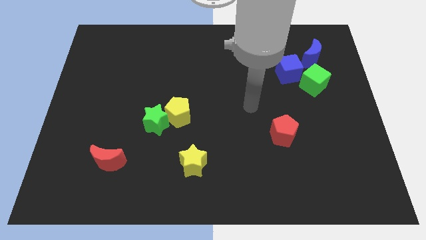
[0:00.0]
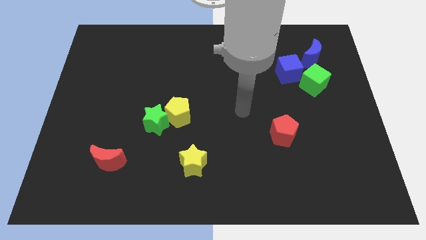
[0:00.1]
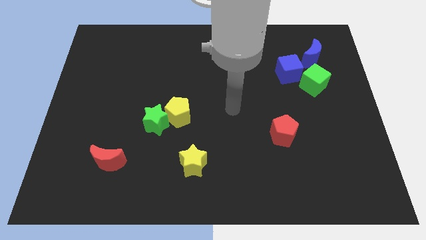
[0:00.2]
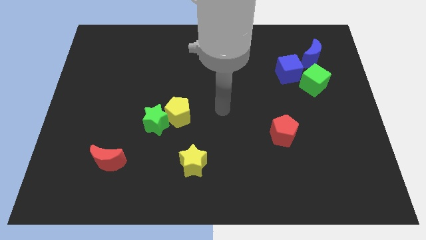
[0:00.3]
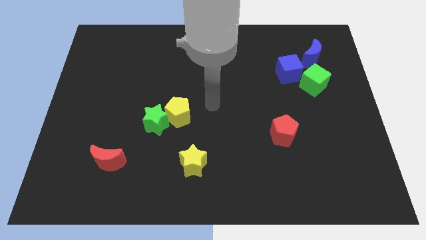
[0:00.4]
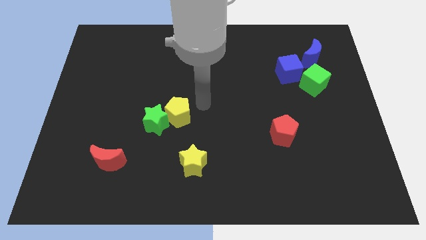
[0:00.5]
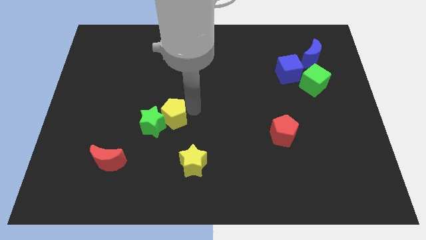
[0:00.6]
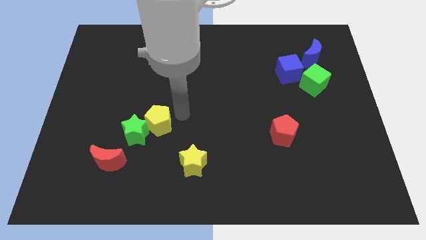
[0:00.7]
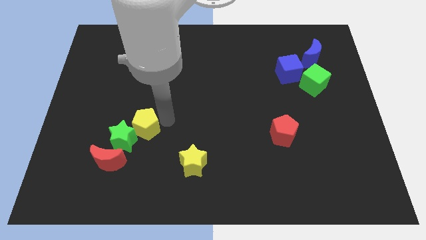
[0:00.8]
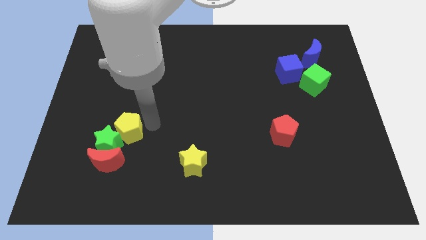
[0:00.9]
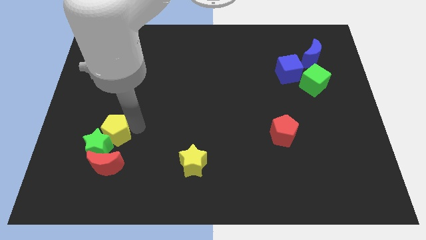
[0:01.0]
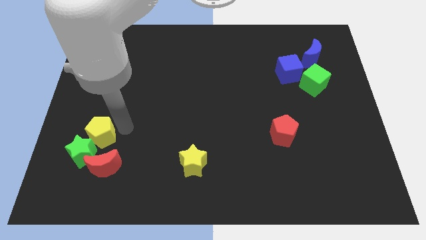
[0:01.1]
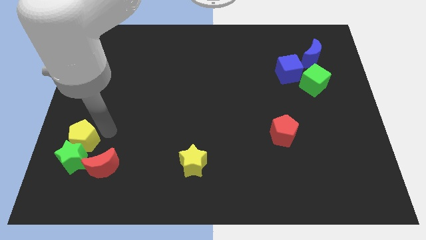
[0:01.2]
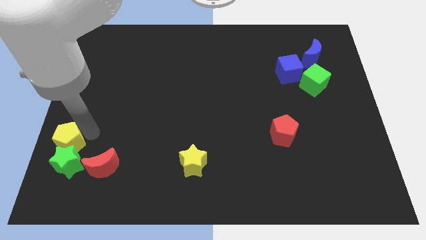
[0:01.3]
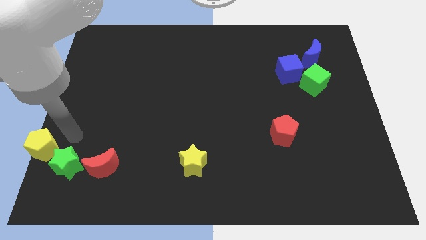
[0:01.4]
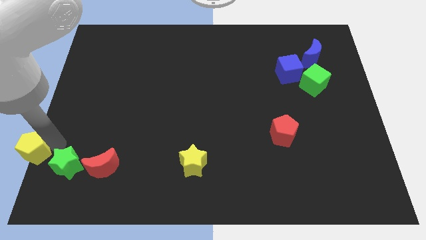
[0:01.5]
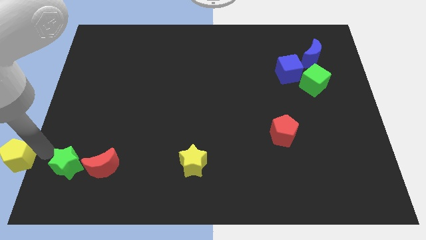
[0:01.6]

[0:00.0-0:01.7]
move the green star away from the yellow pentagon

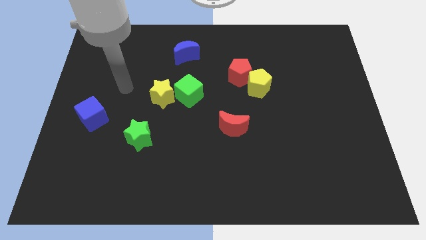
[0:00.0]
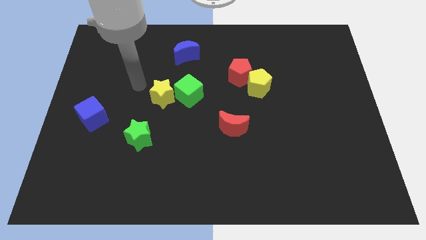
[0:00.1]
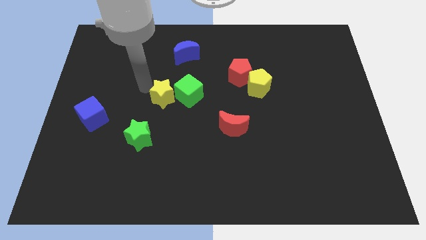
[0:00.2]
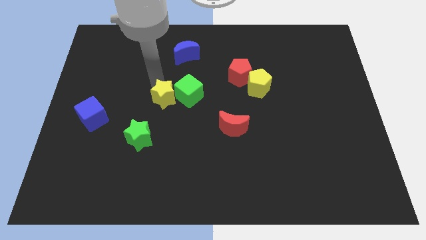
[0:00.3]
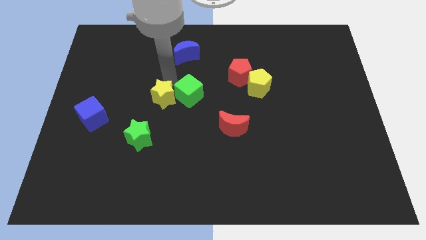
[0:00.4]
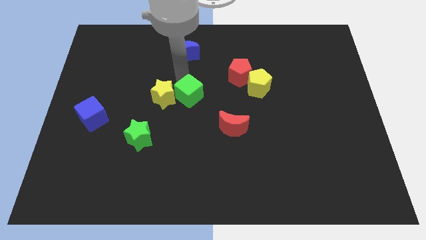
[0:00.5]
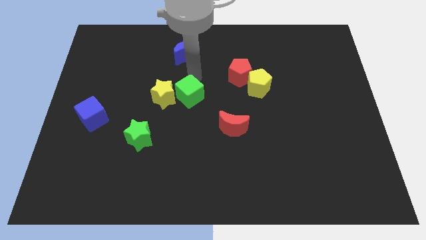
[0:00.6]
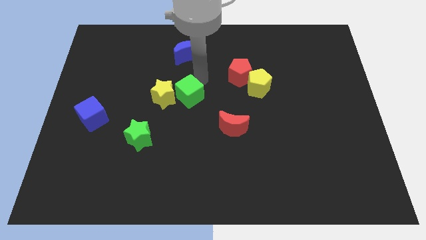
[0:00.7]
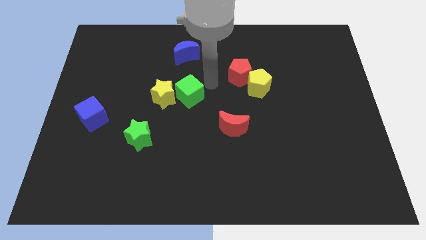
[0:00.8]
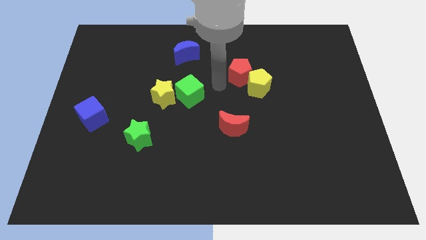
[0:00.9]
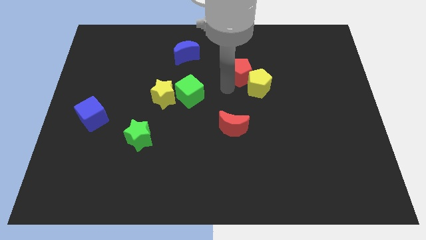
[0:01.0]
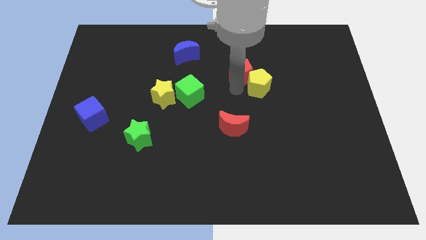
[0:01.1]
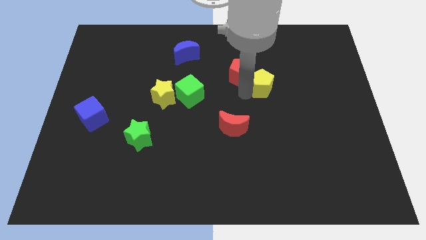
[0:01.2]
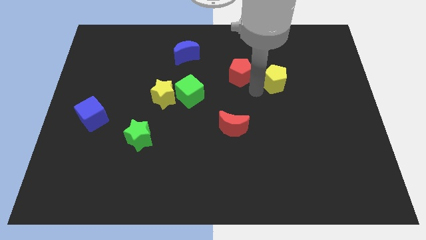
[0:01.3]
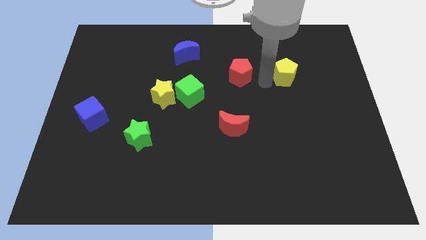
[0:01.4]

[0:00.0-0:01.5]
pull the red pentagon apart from the yellow pentagon

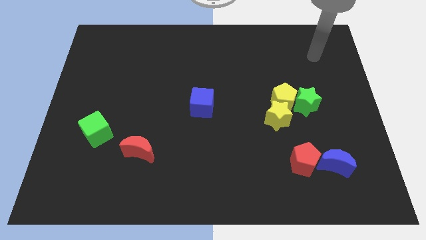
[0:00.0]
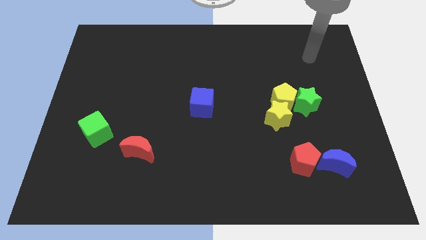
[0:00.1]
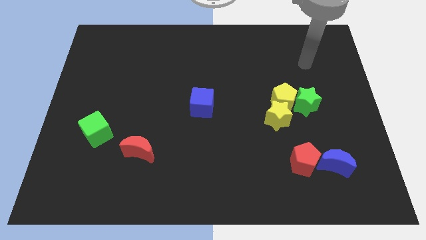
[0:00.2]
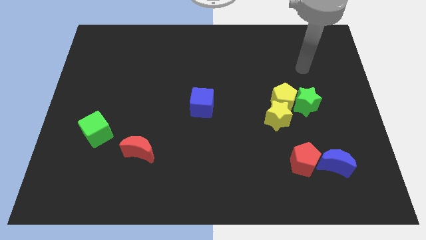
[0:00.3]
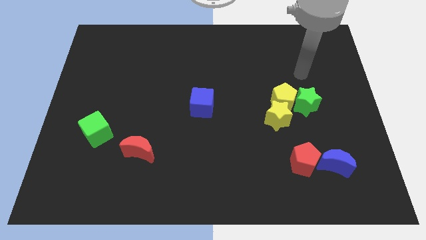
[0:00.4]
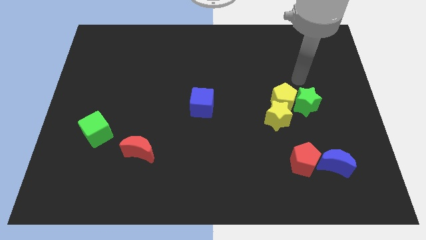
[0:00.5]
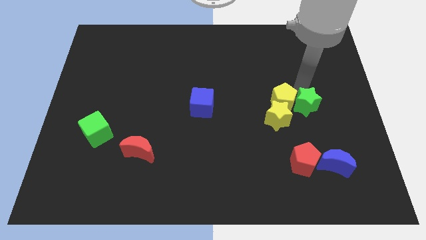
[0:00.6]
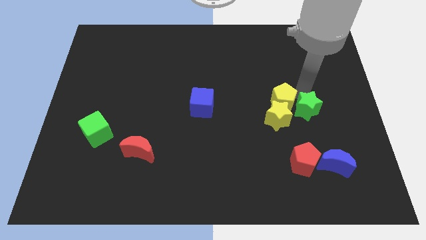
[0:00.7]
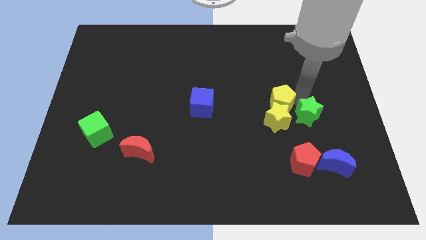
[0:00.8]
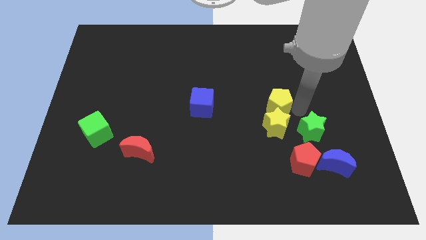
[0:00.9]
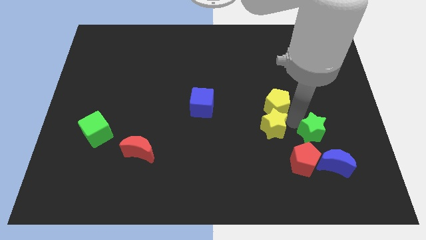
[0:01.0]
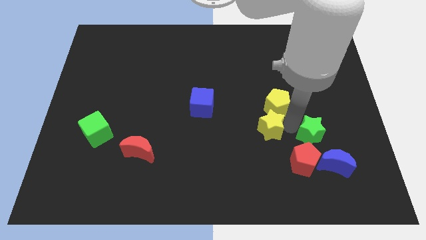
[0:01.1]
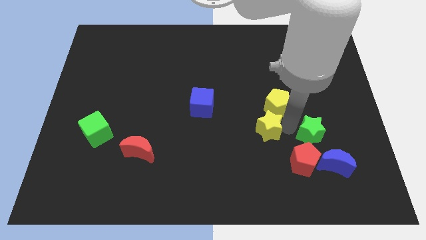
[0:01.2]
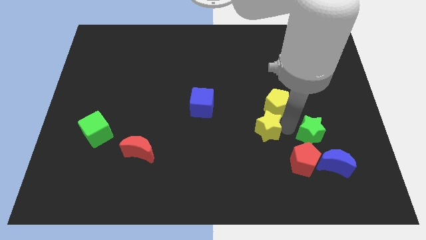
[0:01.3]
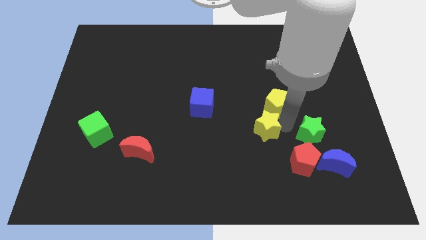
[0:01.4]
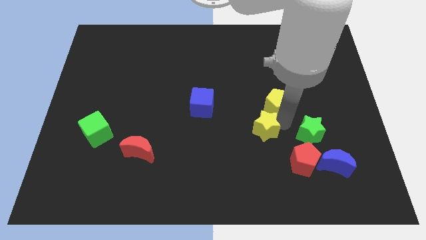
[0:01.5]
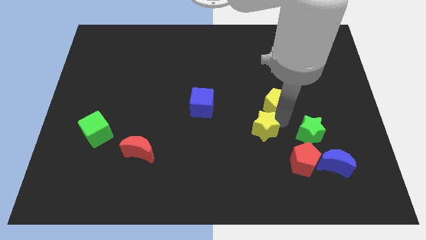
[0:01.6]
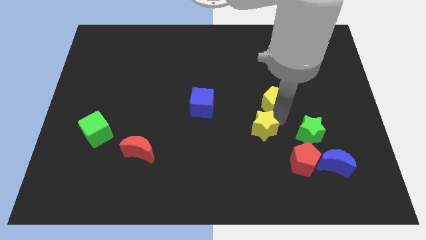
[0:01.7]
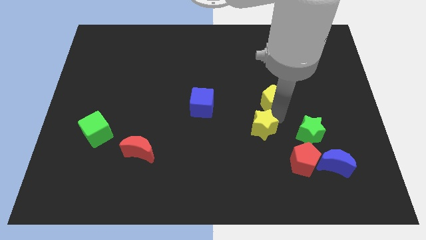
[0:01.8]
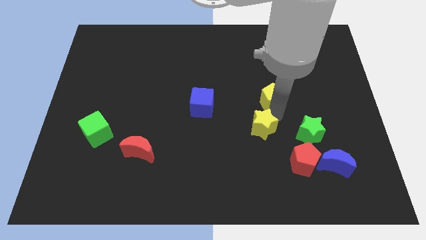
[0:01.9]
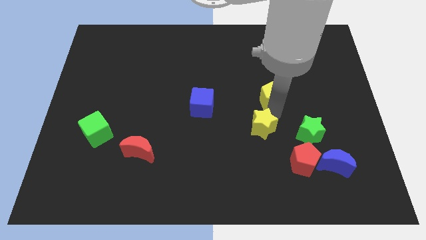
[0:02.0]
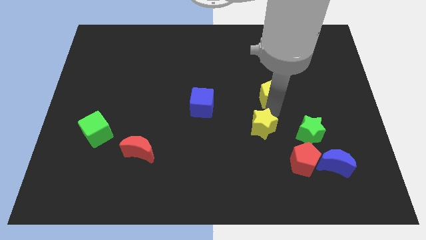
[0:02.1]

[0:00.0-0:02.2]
pull the yellow pentagon apart from the yellow star and green star

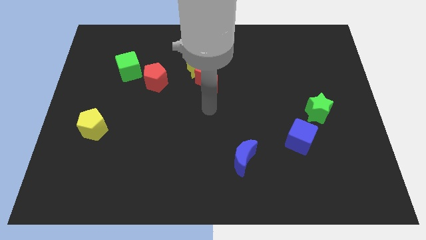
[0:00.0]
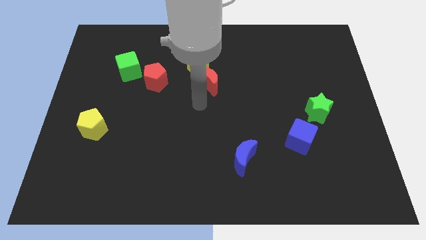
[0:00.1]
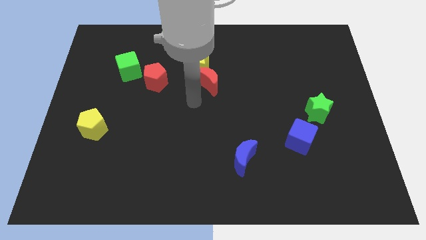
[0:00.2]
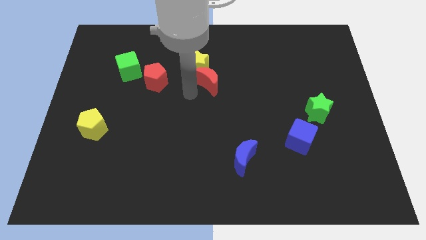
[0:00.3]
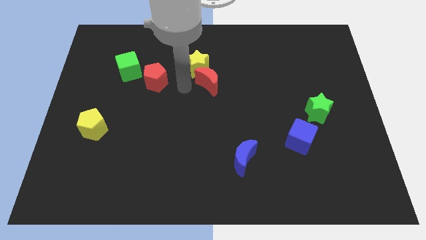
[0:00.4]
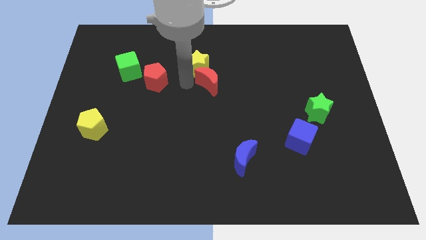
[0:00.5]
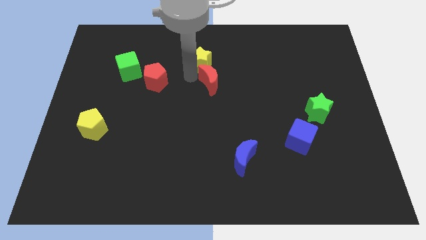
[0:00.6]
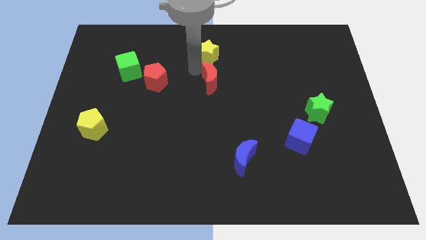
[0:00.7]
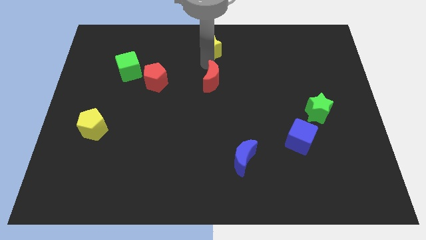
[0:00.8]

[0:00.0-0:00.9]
pull the red moon apart from the yellow star

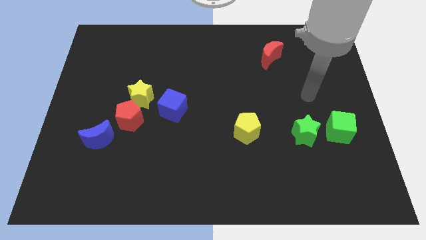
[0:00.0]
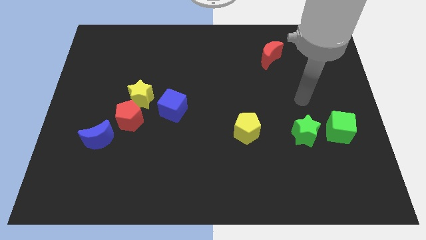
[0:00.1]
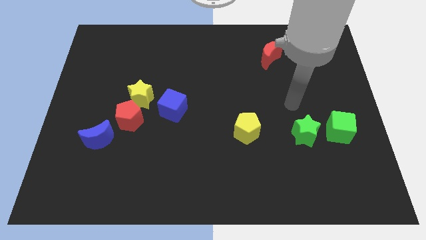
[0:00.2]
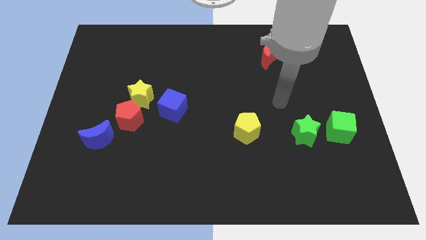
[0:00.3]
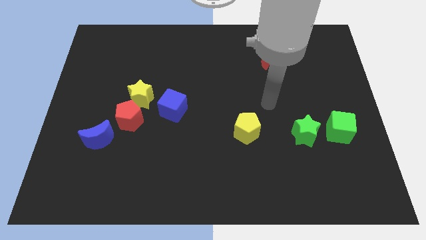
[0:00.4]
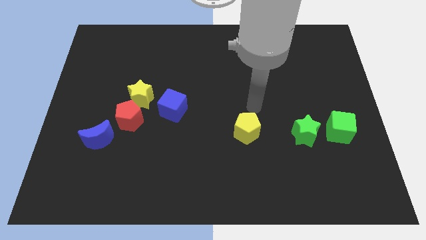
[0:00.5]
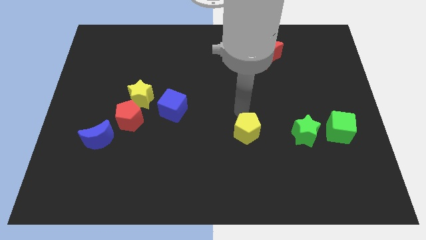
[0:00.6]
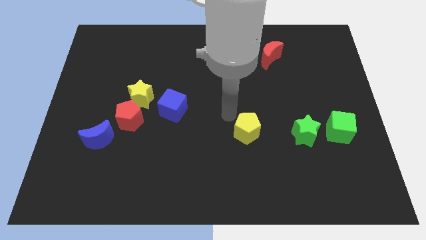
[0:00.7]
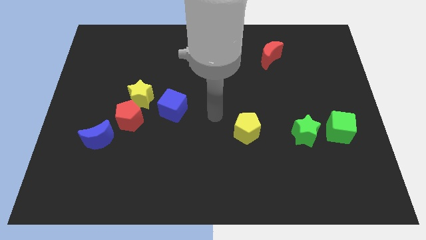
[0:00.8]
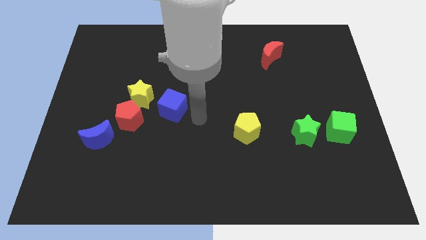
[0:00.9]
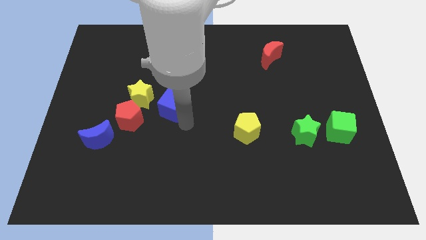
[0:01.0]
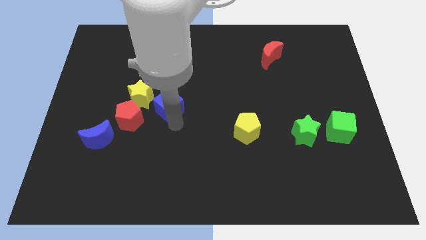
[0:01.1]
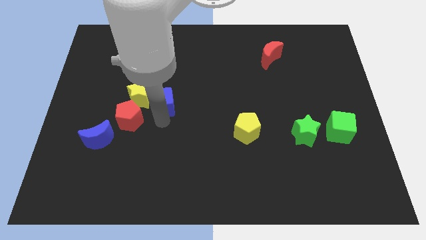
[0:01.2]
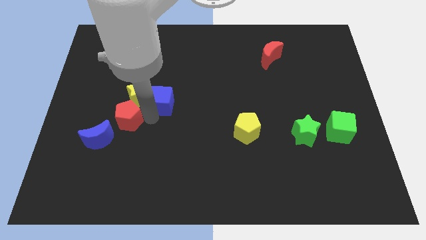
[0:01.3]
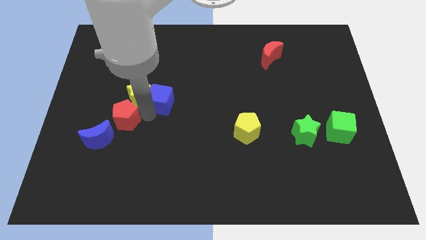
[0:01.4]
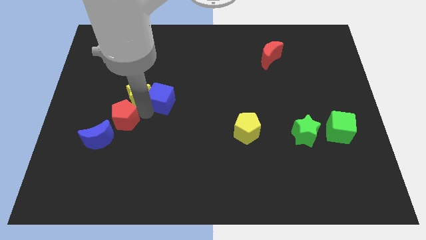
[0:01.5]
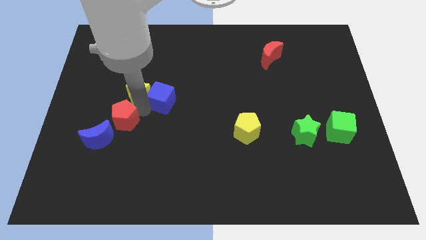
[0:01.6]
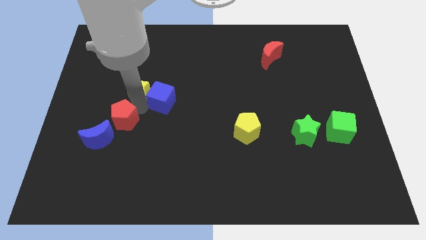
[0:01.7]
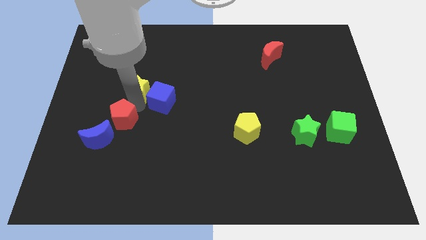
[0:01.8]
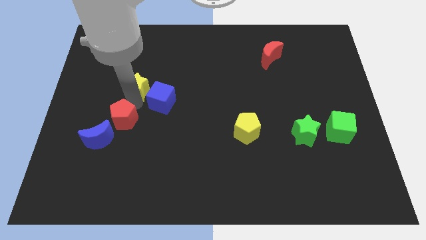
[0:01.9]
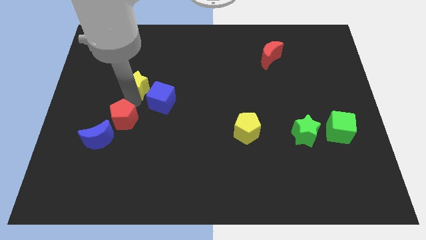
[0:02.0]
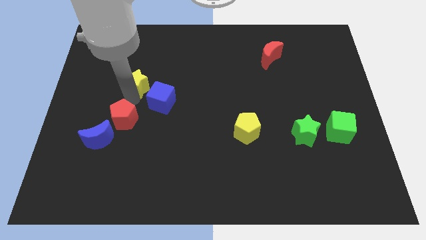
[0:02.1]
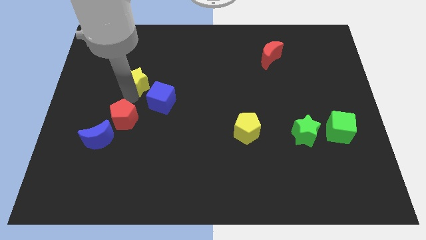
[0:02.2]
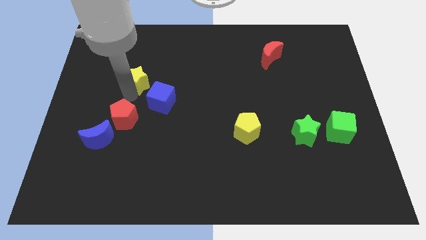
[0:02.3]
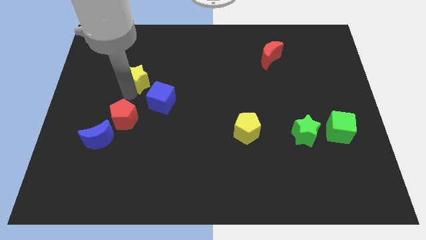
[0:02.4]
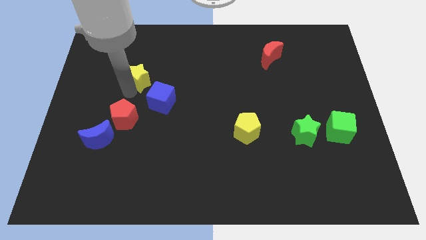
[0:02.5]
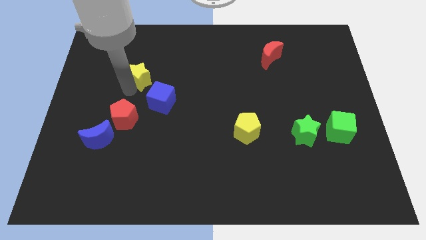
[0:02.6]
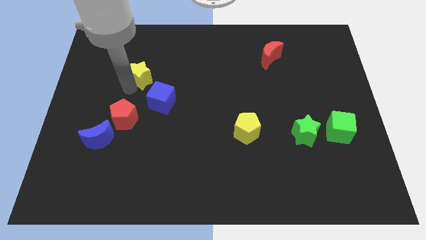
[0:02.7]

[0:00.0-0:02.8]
move the yellow star away from the red pentagon and blue cube

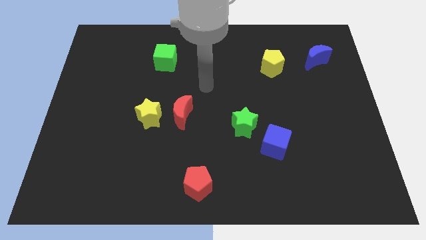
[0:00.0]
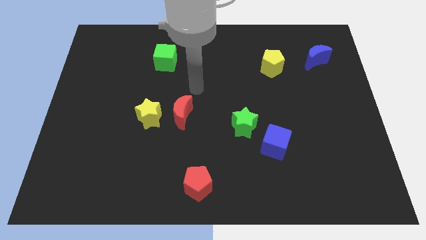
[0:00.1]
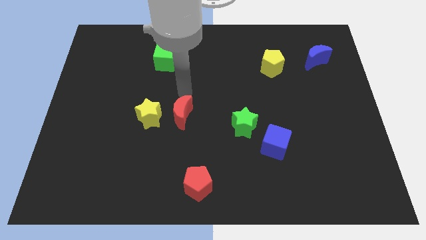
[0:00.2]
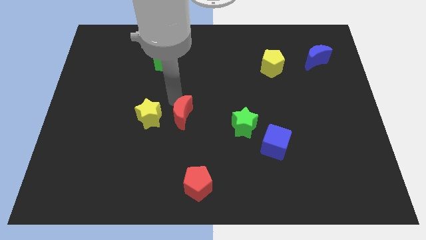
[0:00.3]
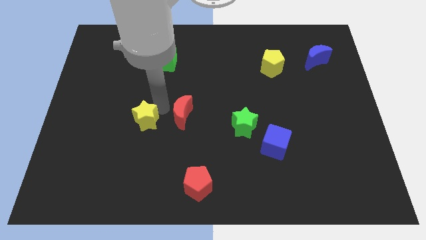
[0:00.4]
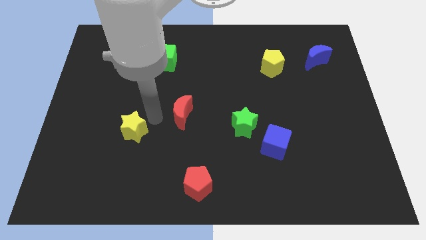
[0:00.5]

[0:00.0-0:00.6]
separate the red moon from the yellow star
